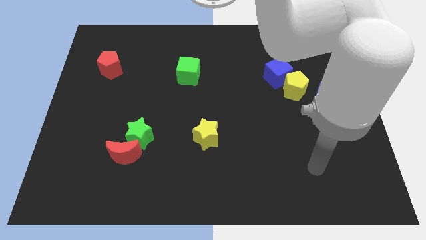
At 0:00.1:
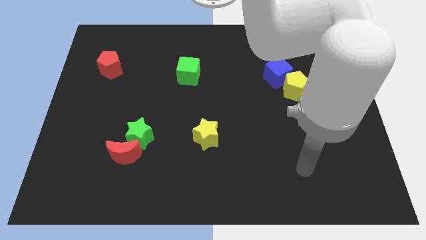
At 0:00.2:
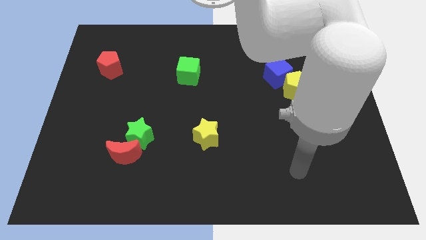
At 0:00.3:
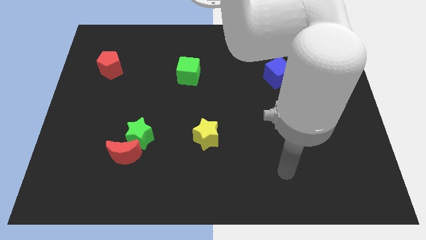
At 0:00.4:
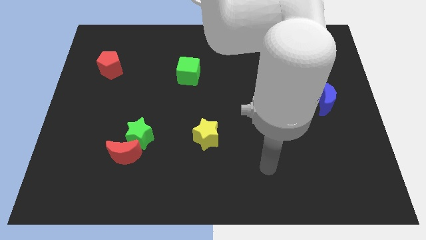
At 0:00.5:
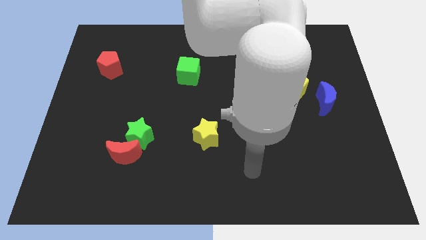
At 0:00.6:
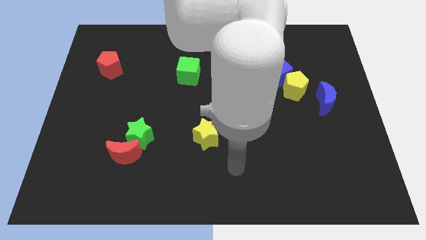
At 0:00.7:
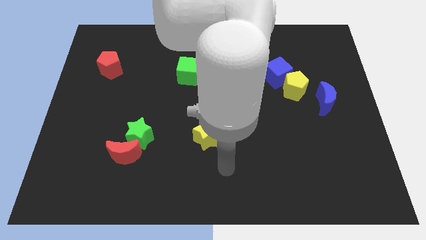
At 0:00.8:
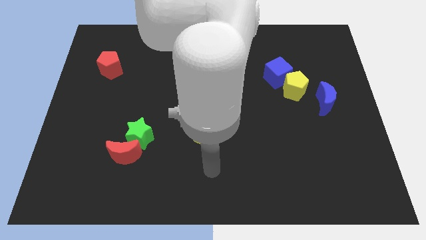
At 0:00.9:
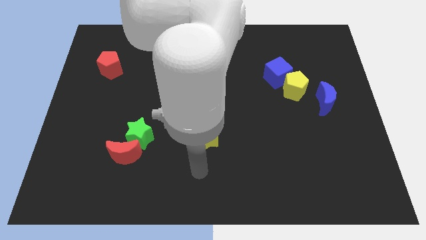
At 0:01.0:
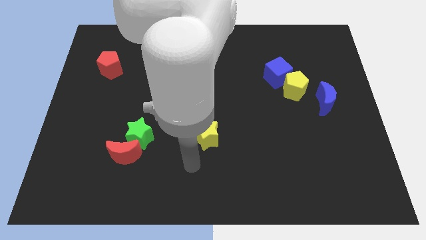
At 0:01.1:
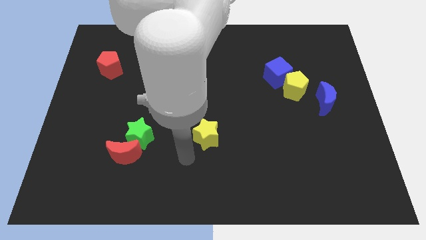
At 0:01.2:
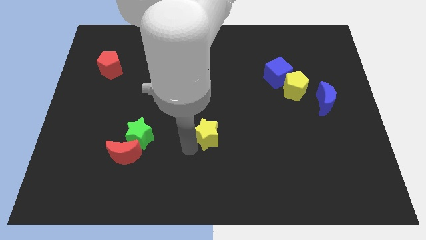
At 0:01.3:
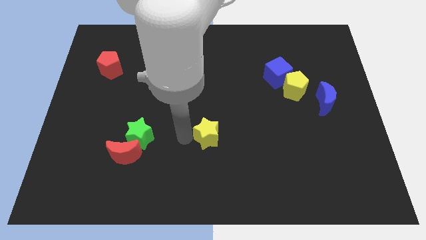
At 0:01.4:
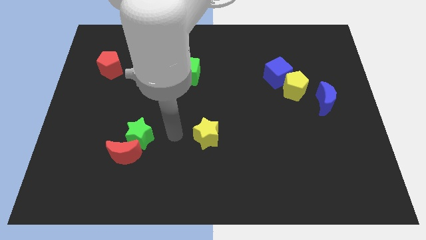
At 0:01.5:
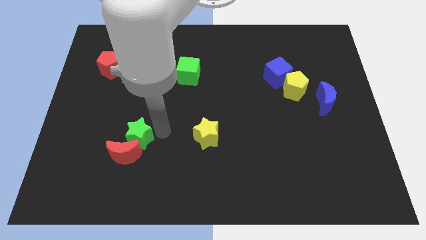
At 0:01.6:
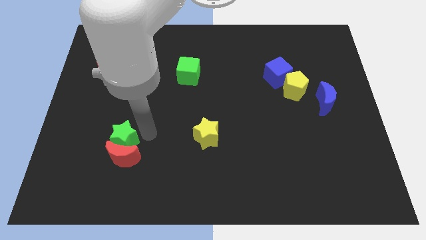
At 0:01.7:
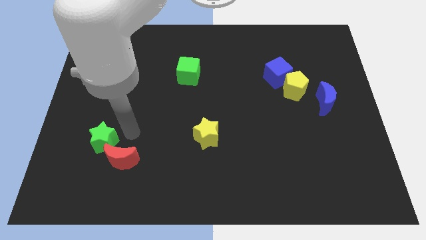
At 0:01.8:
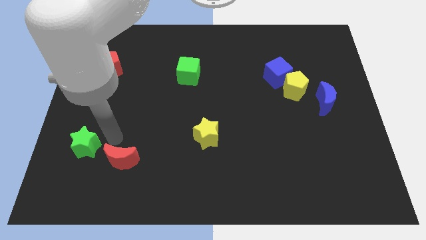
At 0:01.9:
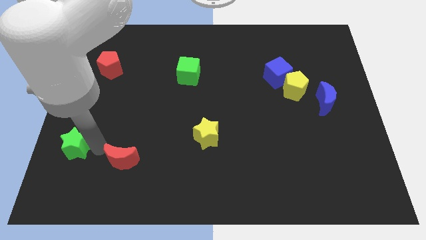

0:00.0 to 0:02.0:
move the red moon away from the green star

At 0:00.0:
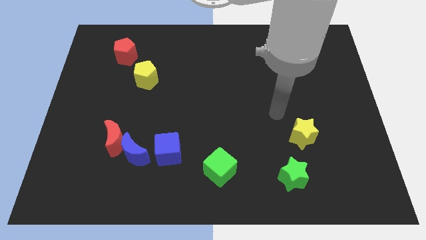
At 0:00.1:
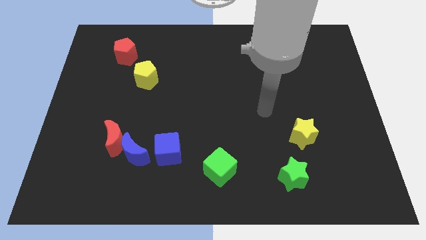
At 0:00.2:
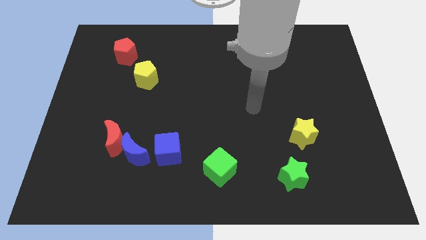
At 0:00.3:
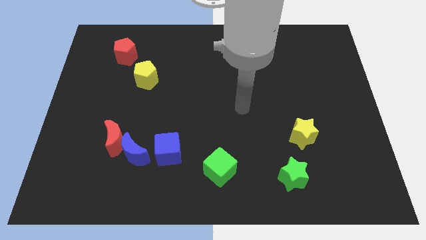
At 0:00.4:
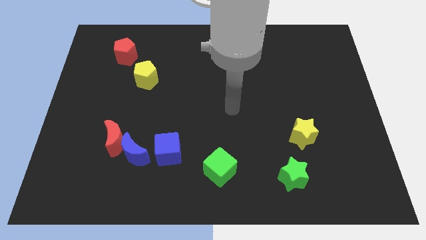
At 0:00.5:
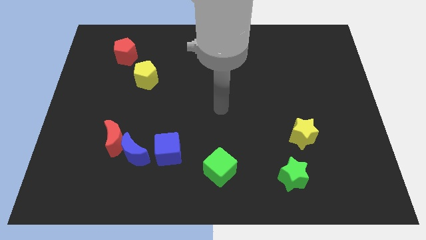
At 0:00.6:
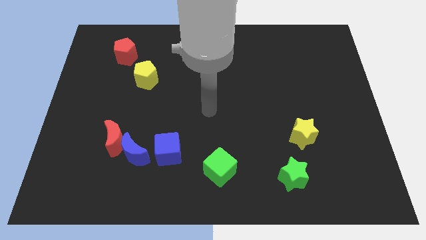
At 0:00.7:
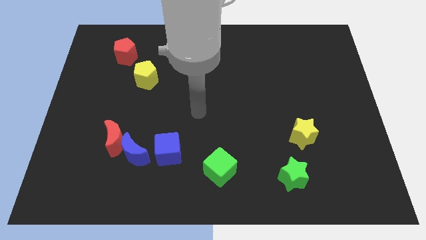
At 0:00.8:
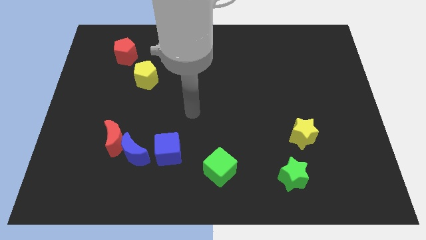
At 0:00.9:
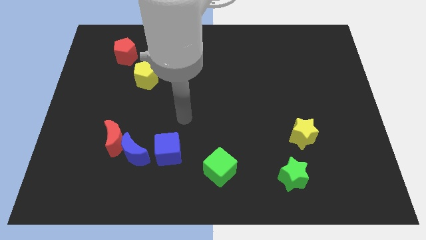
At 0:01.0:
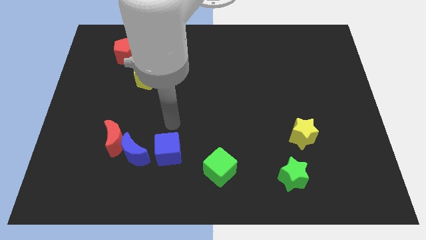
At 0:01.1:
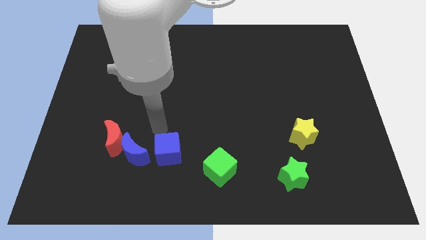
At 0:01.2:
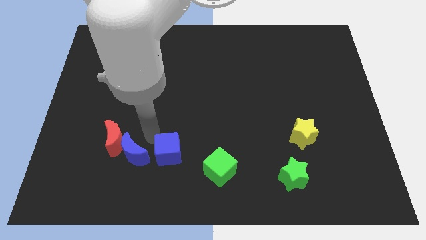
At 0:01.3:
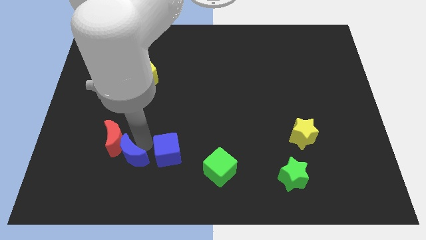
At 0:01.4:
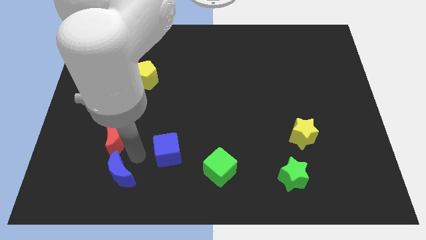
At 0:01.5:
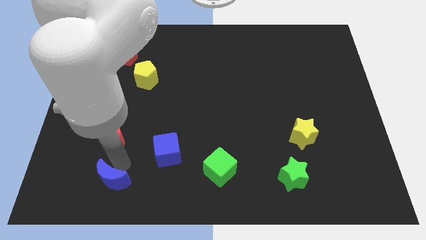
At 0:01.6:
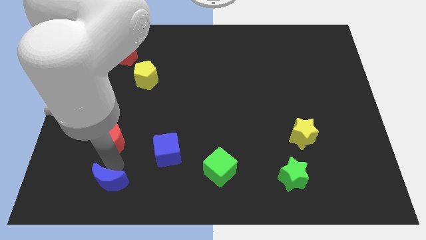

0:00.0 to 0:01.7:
separate the red moon from the blue moon

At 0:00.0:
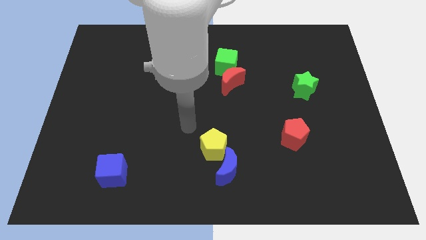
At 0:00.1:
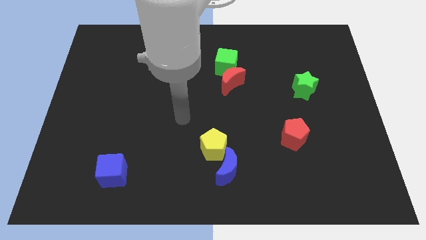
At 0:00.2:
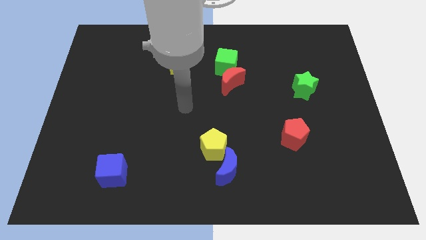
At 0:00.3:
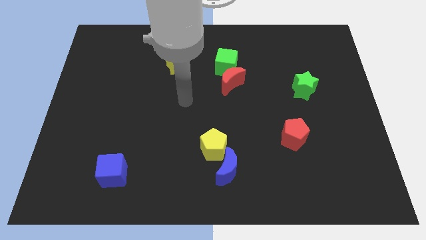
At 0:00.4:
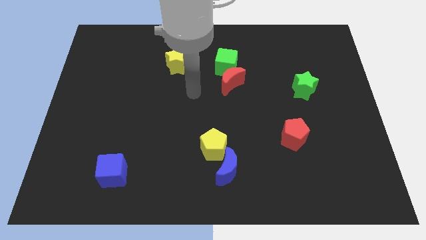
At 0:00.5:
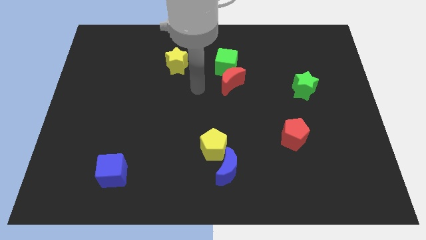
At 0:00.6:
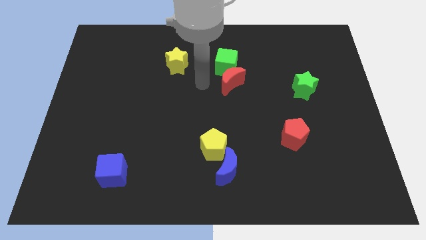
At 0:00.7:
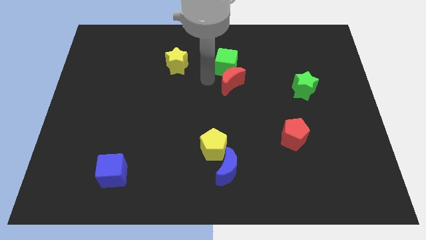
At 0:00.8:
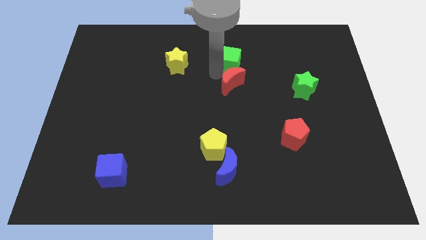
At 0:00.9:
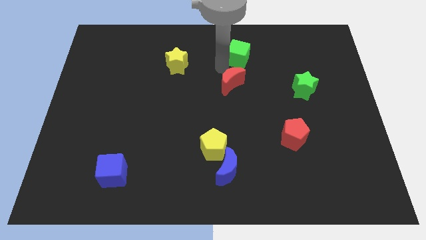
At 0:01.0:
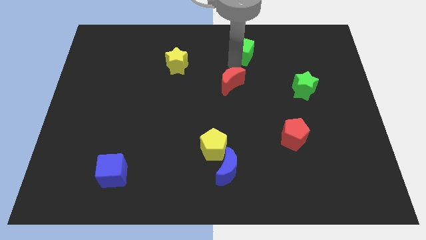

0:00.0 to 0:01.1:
move the red moon away from the green cube

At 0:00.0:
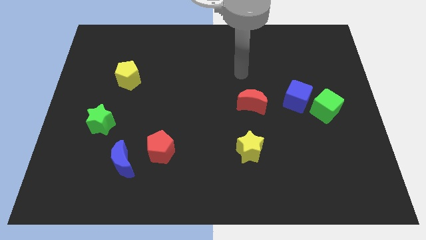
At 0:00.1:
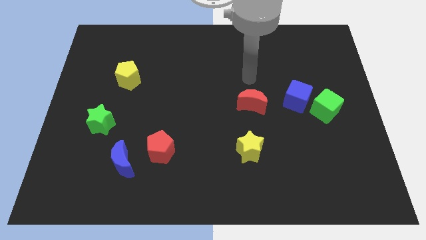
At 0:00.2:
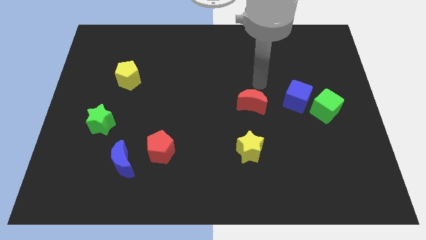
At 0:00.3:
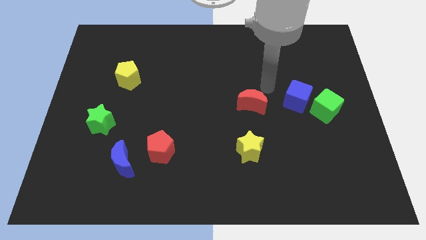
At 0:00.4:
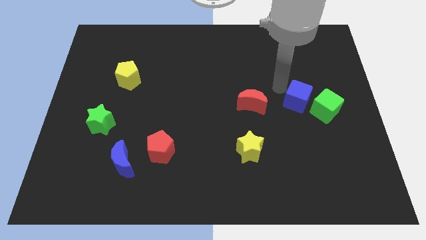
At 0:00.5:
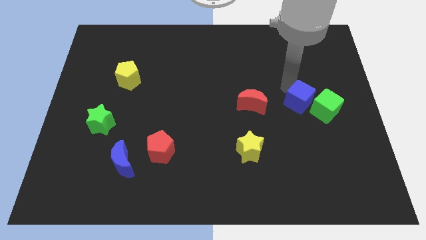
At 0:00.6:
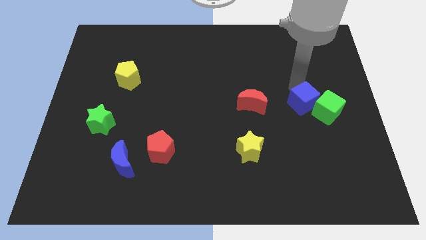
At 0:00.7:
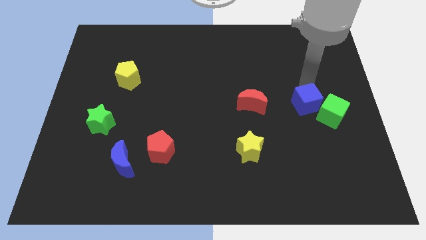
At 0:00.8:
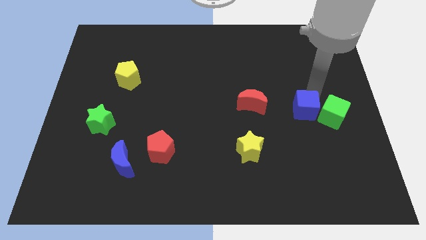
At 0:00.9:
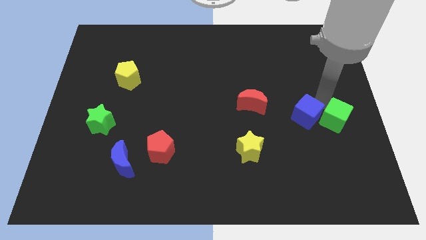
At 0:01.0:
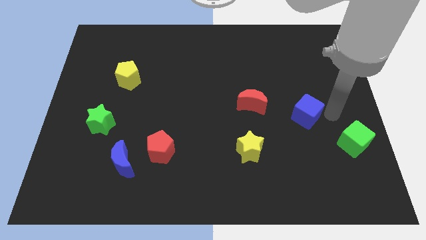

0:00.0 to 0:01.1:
pull the blue cube apart from the green cube

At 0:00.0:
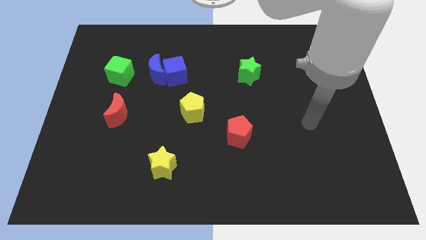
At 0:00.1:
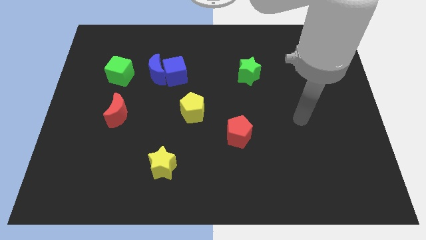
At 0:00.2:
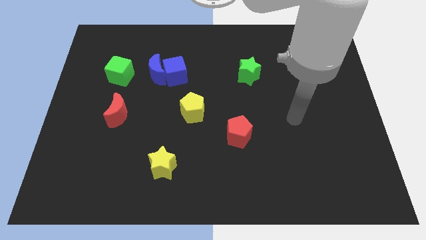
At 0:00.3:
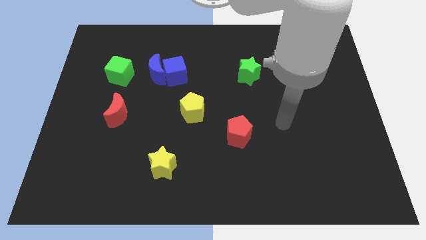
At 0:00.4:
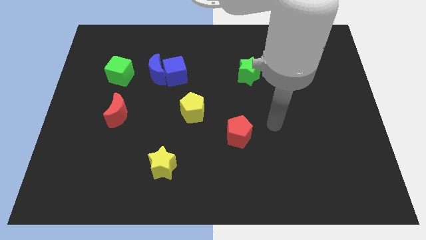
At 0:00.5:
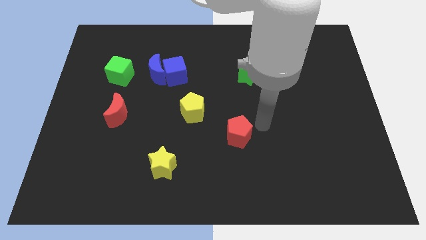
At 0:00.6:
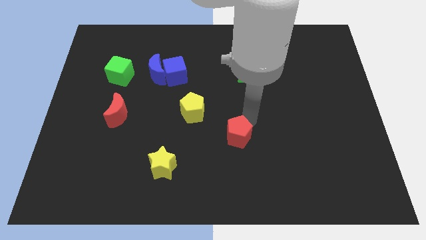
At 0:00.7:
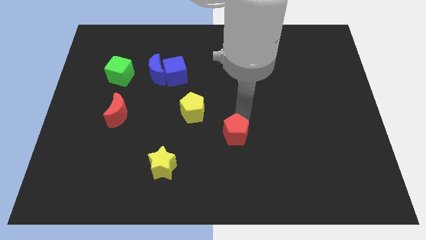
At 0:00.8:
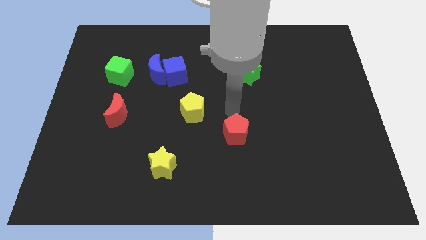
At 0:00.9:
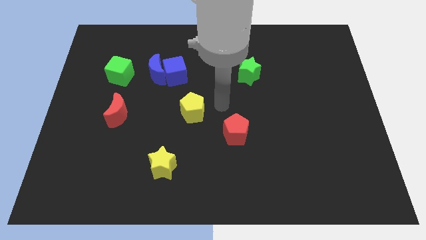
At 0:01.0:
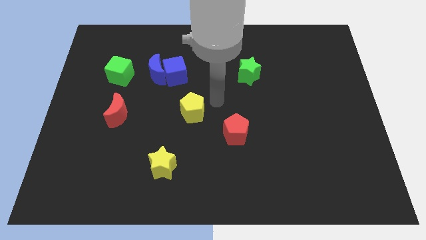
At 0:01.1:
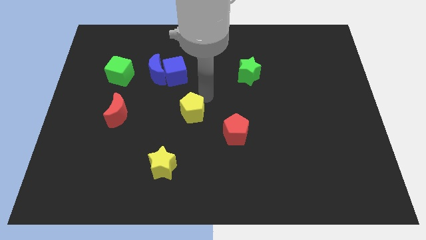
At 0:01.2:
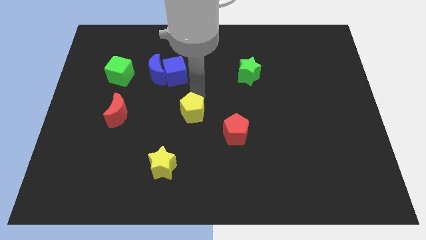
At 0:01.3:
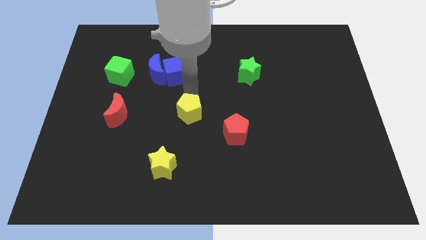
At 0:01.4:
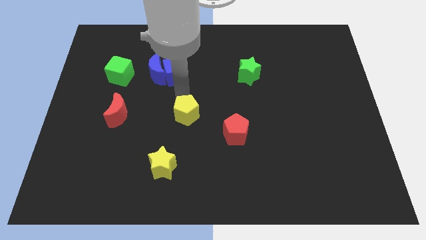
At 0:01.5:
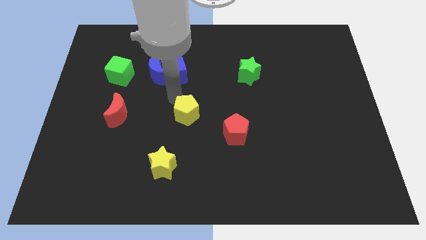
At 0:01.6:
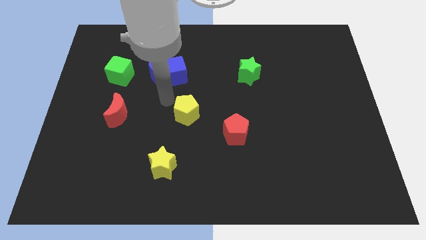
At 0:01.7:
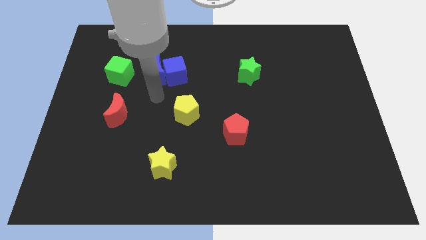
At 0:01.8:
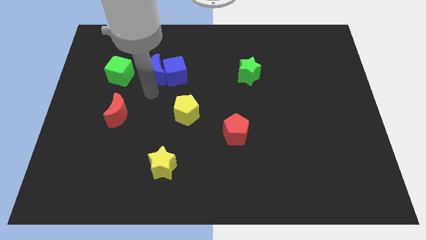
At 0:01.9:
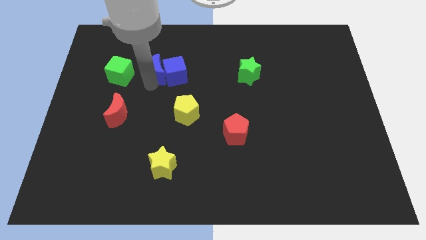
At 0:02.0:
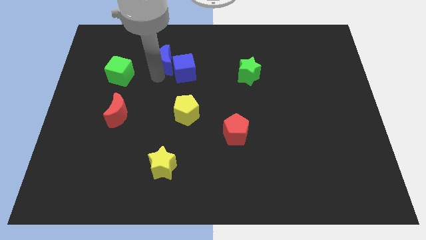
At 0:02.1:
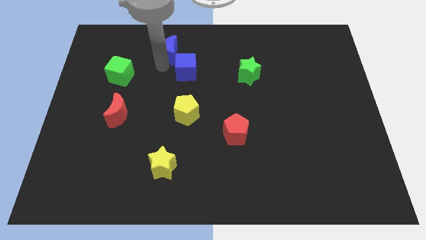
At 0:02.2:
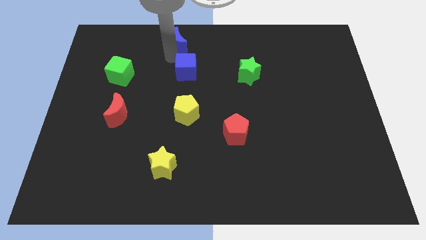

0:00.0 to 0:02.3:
pull the blue cube apart from the blue moon

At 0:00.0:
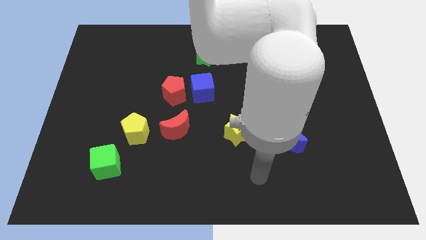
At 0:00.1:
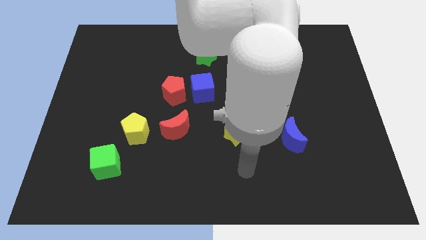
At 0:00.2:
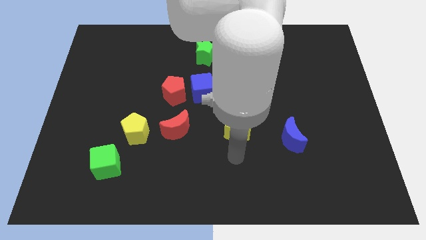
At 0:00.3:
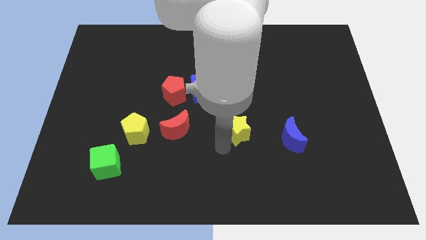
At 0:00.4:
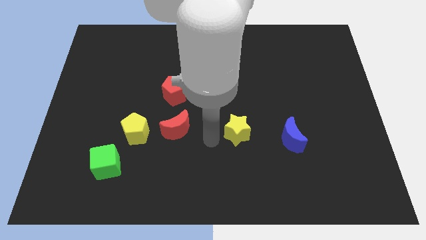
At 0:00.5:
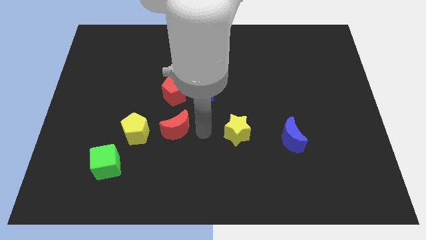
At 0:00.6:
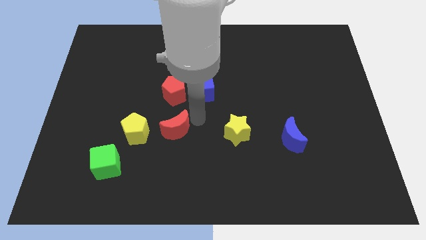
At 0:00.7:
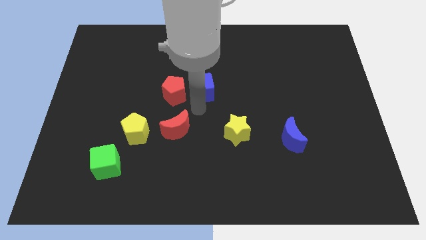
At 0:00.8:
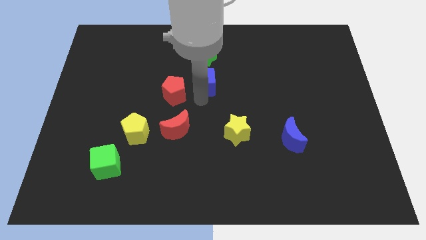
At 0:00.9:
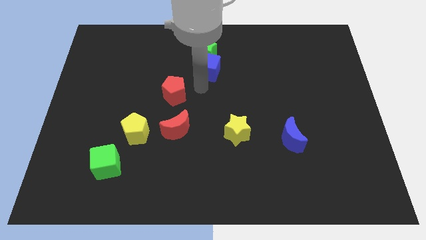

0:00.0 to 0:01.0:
separate the red pentagon from the blue cube

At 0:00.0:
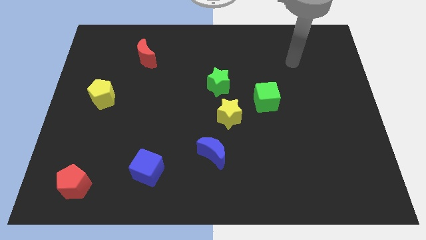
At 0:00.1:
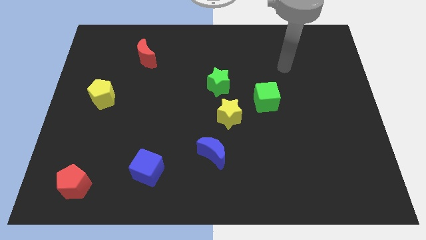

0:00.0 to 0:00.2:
move the green star away from the yellow star

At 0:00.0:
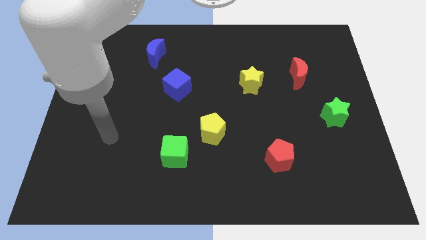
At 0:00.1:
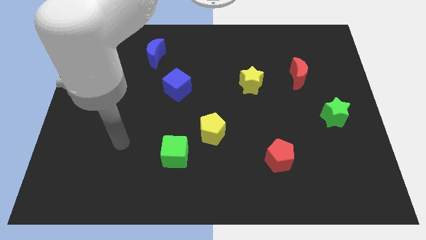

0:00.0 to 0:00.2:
pull the green cube apart from the yellow pentagon
